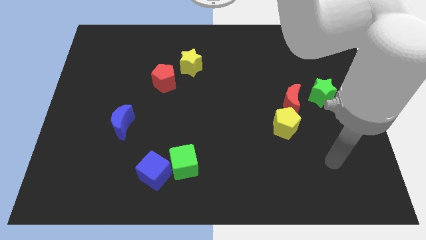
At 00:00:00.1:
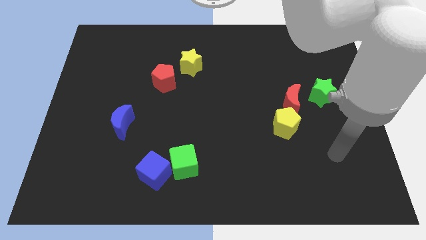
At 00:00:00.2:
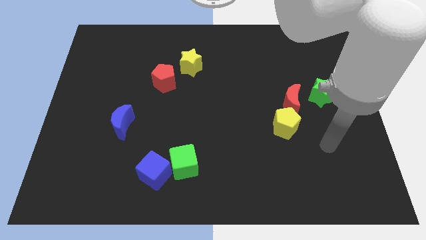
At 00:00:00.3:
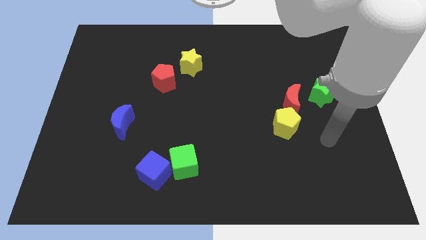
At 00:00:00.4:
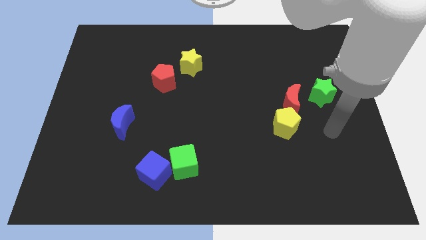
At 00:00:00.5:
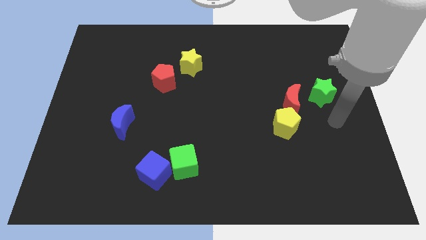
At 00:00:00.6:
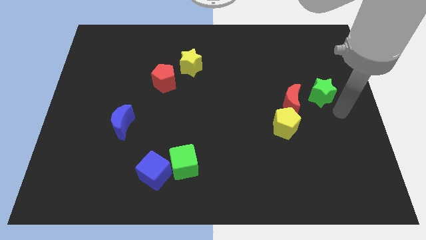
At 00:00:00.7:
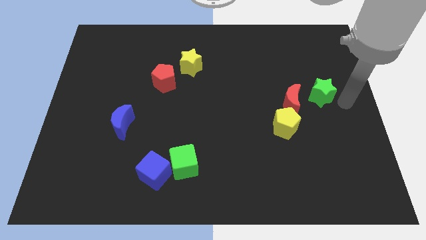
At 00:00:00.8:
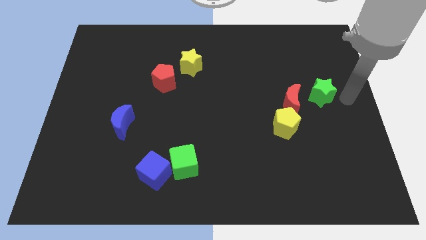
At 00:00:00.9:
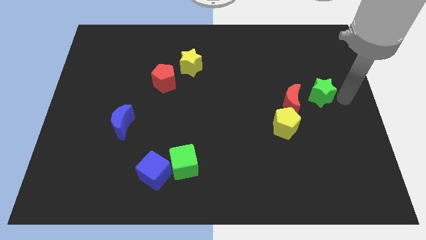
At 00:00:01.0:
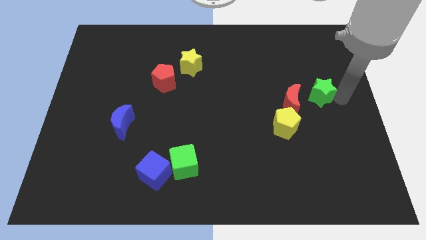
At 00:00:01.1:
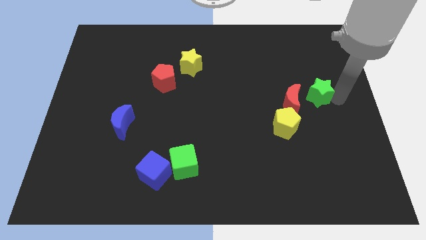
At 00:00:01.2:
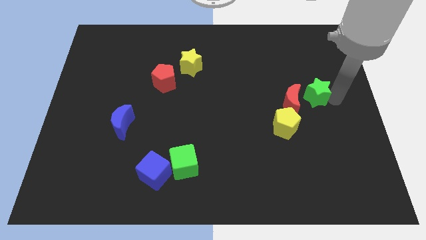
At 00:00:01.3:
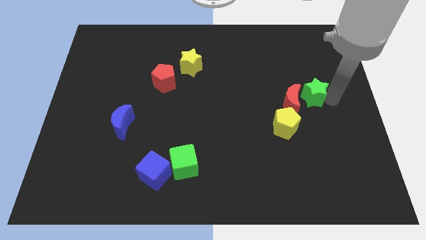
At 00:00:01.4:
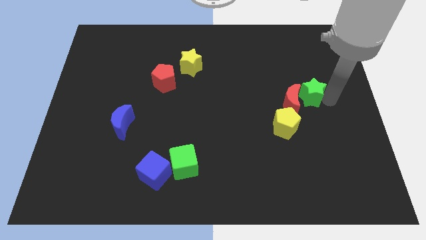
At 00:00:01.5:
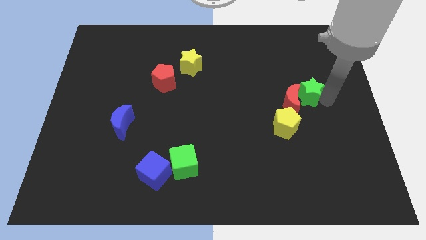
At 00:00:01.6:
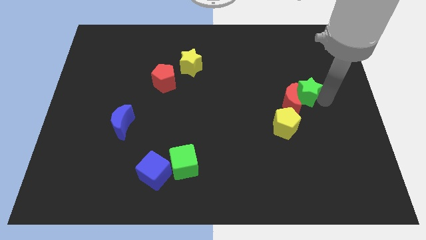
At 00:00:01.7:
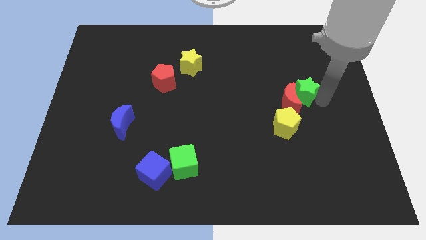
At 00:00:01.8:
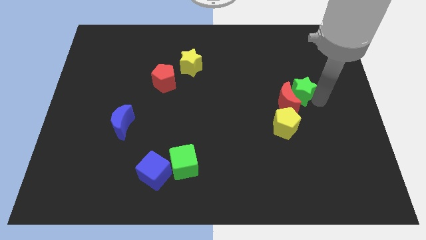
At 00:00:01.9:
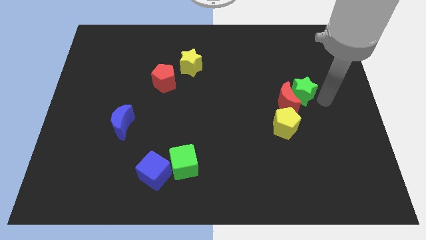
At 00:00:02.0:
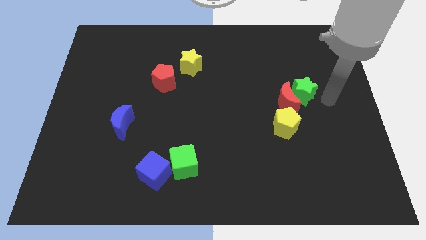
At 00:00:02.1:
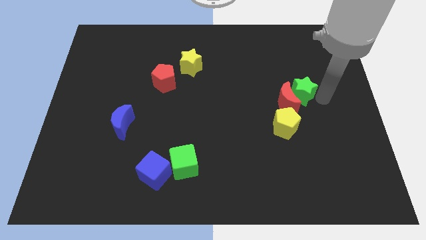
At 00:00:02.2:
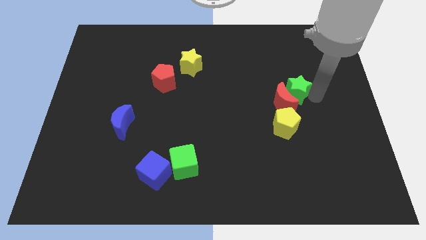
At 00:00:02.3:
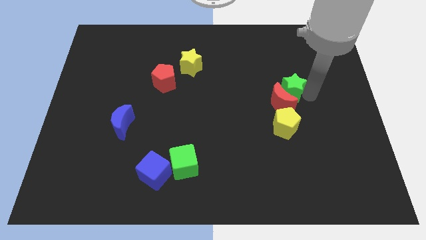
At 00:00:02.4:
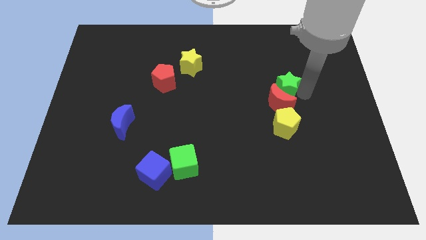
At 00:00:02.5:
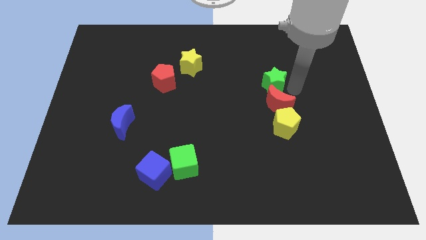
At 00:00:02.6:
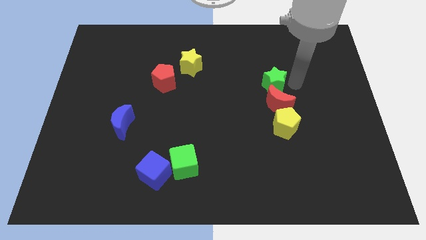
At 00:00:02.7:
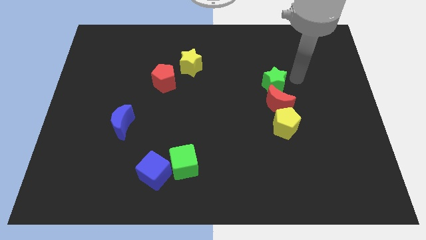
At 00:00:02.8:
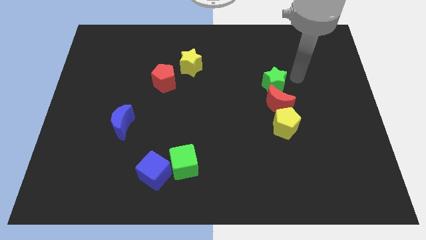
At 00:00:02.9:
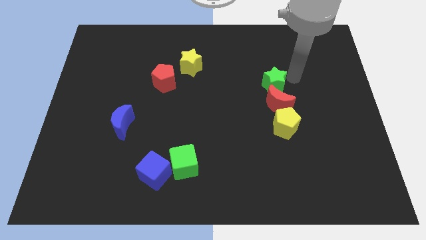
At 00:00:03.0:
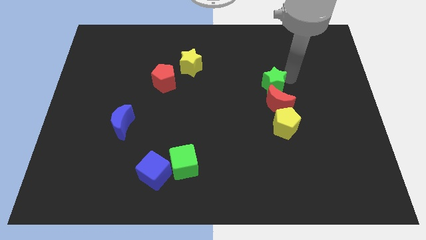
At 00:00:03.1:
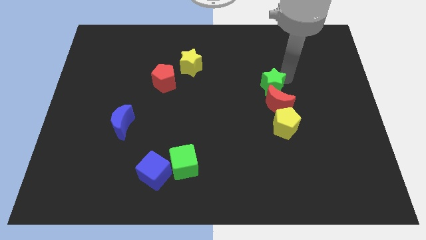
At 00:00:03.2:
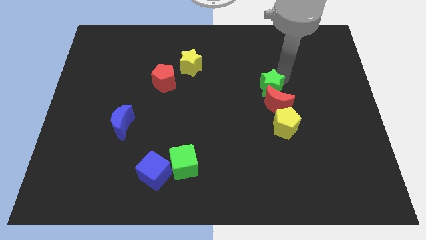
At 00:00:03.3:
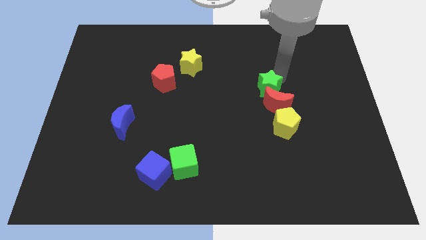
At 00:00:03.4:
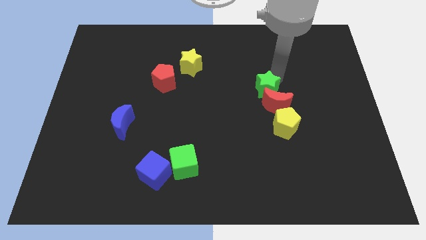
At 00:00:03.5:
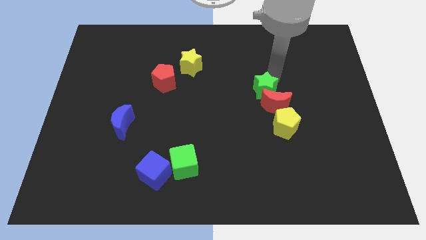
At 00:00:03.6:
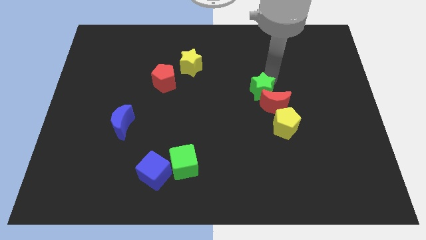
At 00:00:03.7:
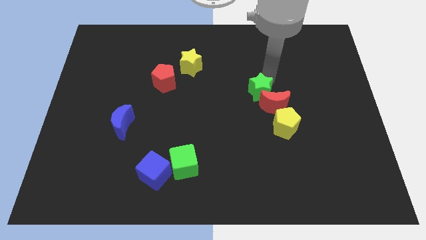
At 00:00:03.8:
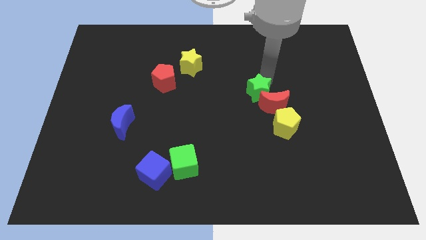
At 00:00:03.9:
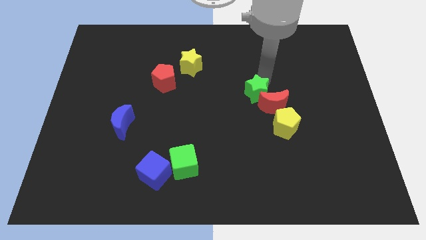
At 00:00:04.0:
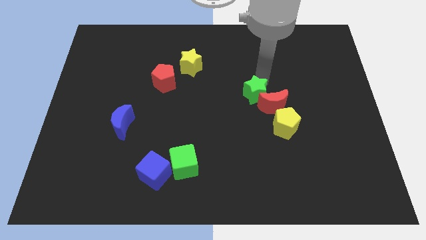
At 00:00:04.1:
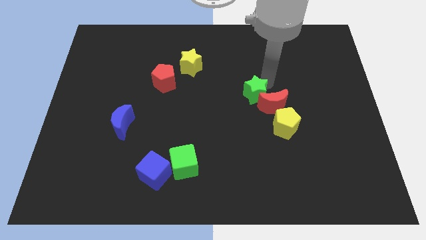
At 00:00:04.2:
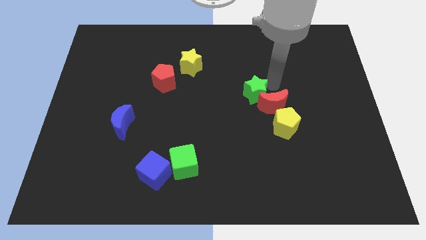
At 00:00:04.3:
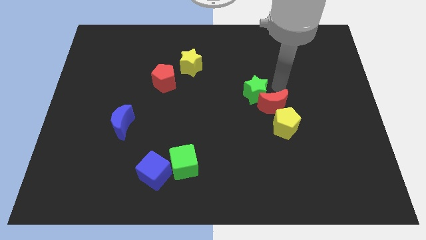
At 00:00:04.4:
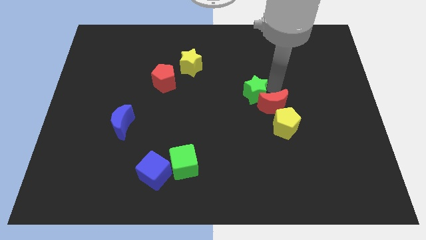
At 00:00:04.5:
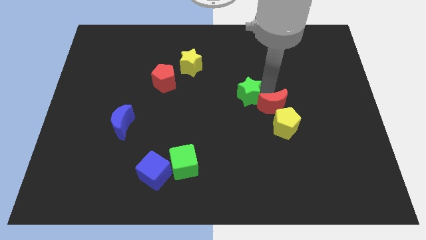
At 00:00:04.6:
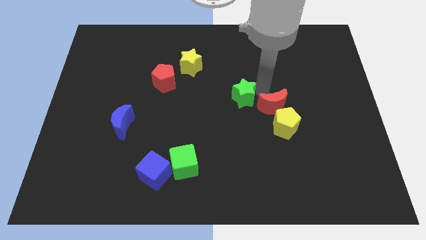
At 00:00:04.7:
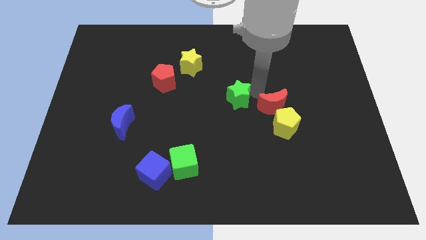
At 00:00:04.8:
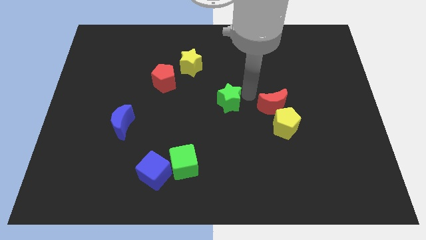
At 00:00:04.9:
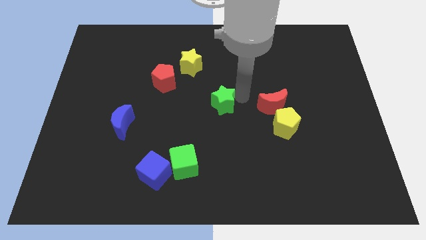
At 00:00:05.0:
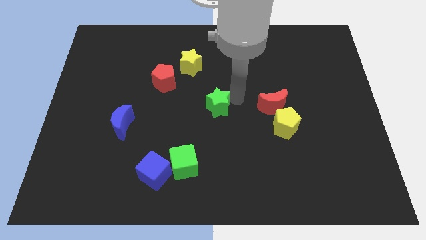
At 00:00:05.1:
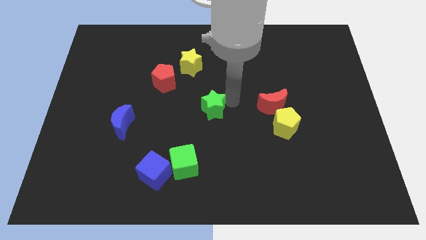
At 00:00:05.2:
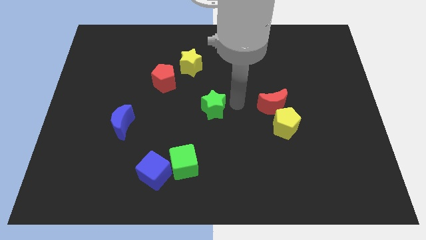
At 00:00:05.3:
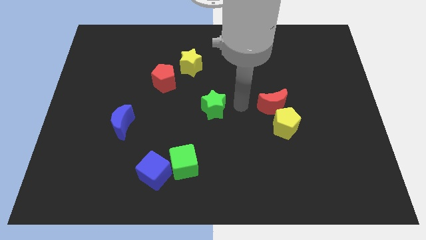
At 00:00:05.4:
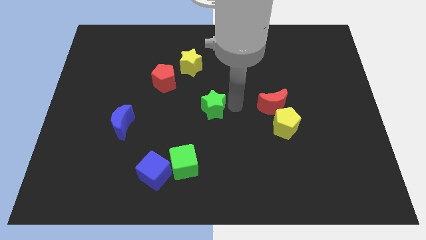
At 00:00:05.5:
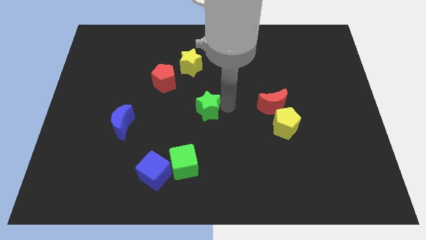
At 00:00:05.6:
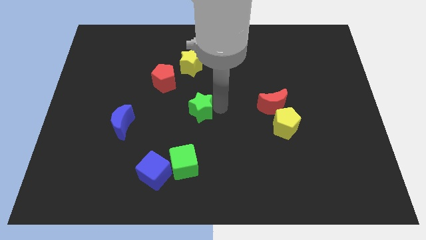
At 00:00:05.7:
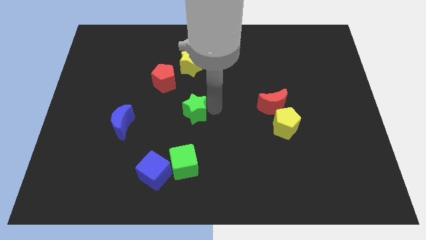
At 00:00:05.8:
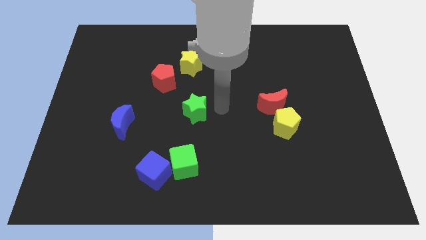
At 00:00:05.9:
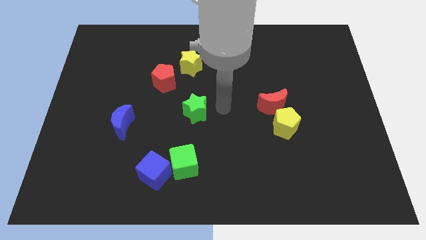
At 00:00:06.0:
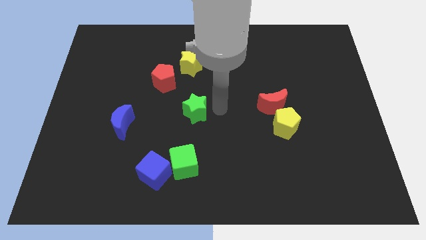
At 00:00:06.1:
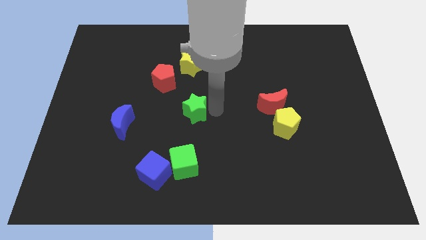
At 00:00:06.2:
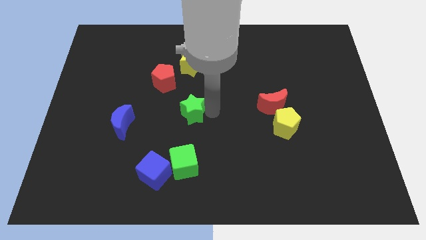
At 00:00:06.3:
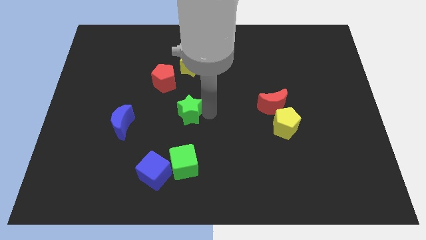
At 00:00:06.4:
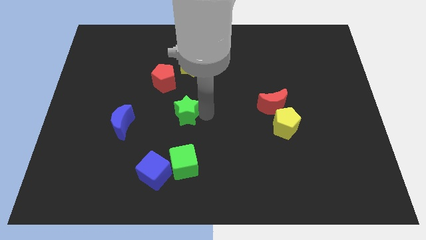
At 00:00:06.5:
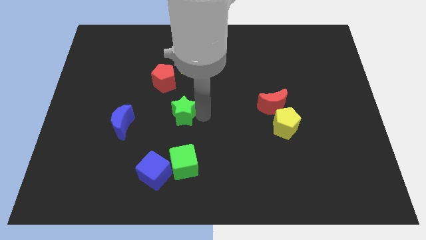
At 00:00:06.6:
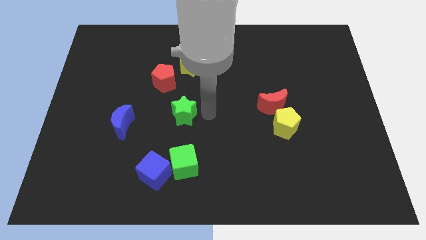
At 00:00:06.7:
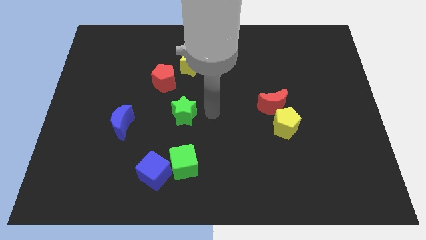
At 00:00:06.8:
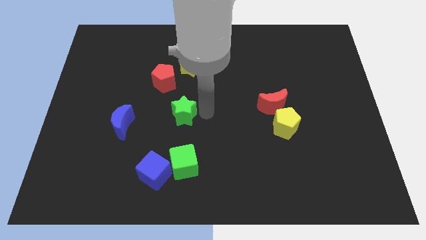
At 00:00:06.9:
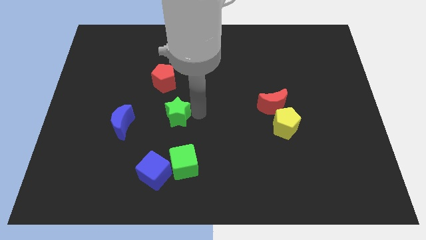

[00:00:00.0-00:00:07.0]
put the green star to the bottom side of the red pentagon
